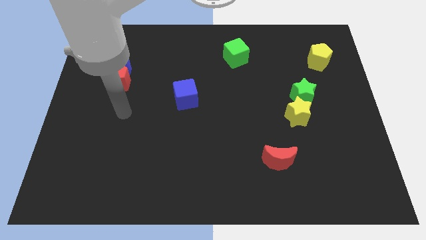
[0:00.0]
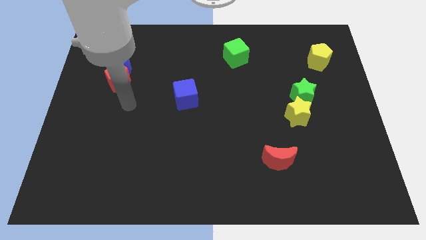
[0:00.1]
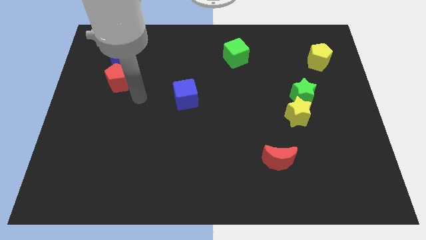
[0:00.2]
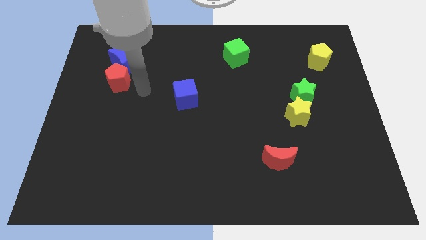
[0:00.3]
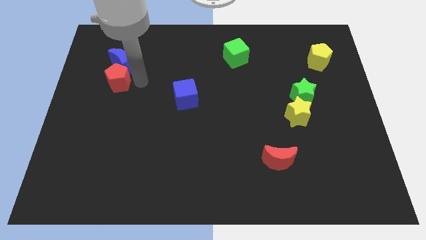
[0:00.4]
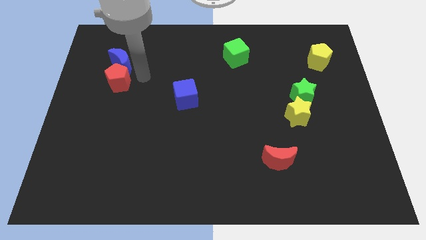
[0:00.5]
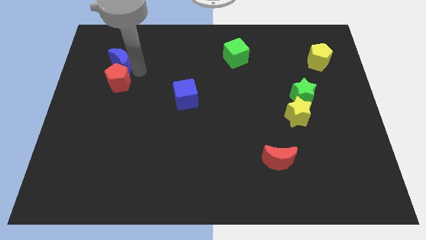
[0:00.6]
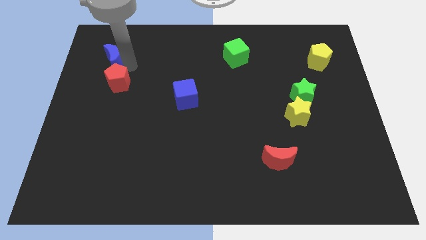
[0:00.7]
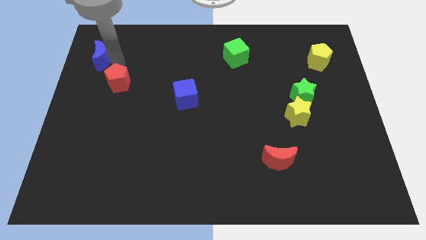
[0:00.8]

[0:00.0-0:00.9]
move the red pentagon away from the blue moon

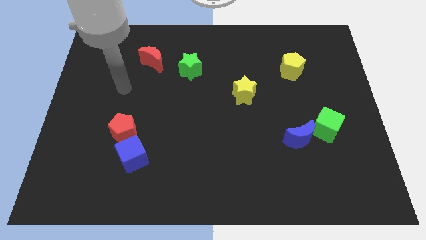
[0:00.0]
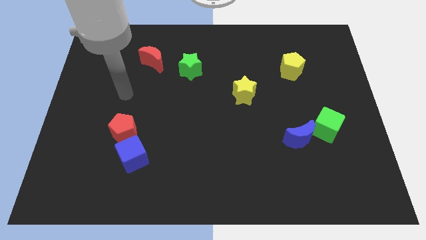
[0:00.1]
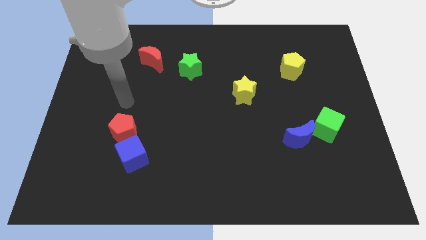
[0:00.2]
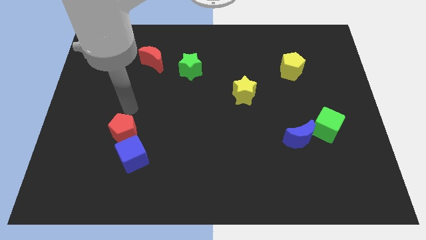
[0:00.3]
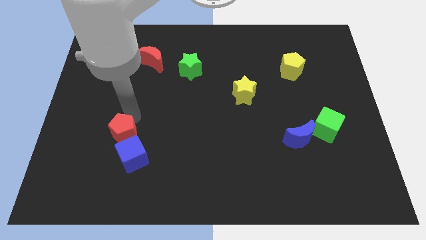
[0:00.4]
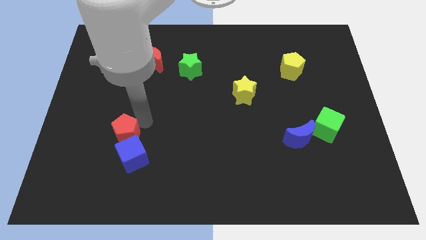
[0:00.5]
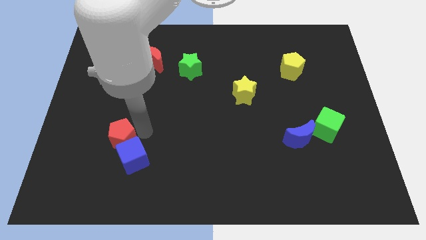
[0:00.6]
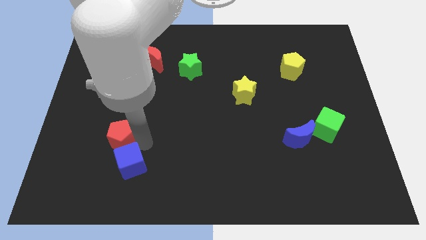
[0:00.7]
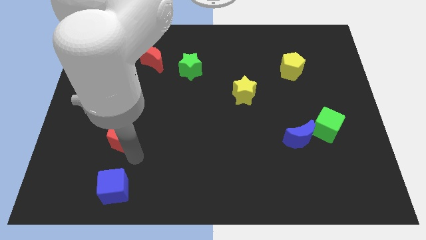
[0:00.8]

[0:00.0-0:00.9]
move the red pentagon away from the blue cube

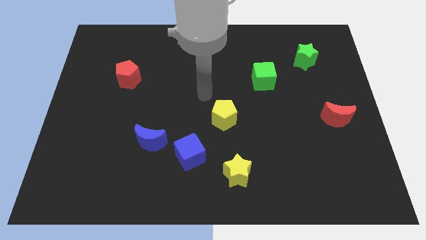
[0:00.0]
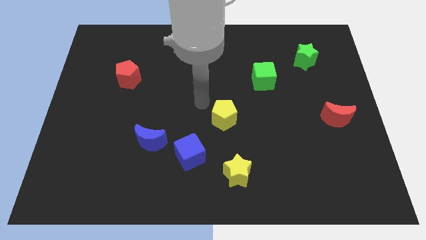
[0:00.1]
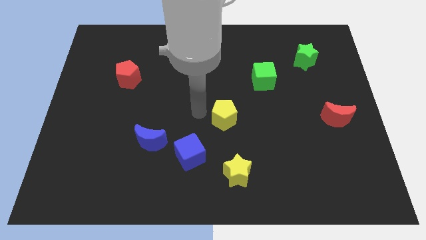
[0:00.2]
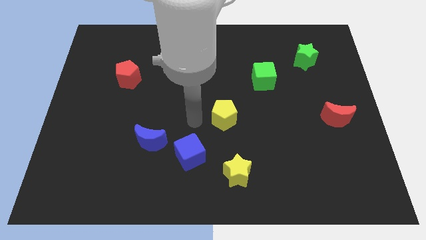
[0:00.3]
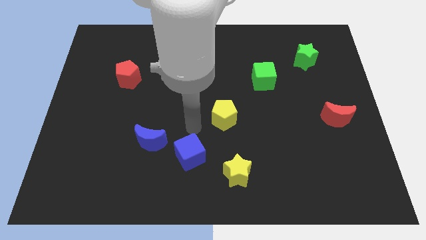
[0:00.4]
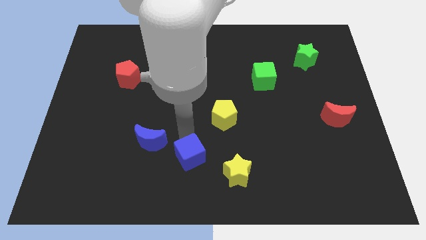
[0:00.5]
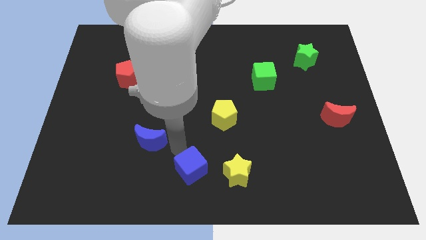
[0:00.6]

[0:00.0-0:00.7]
separate the blue moon from the blue cube

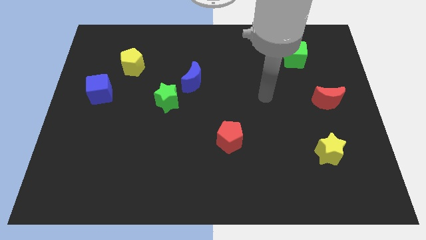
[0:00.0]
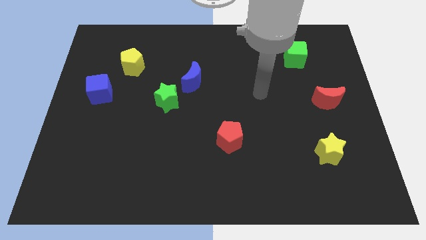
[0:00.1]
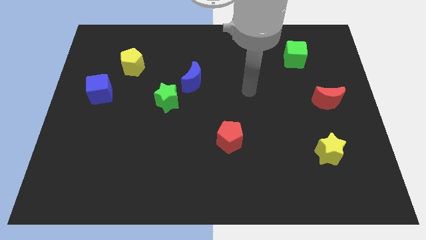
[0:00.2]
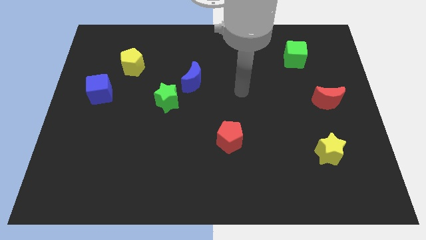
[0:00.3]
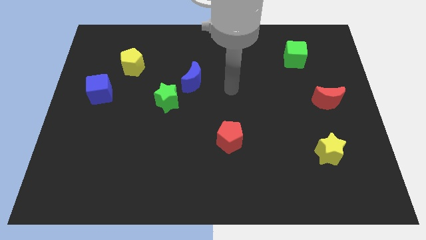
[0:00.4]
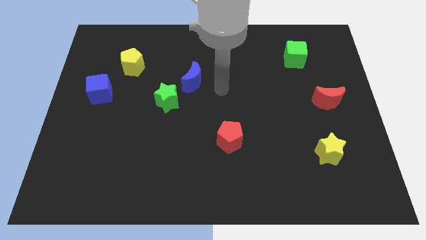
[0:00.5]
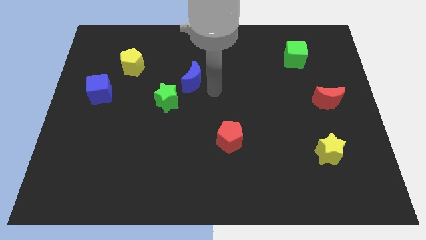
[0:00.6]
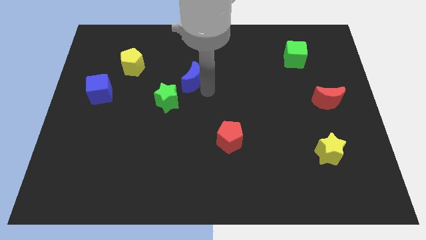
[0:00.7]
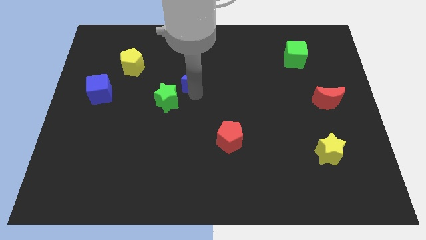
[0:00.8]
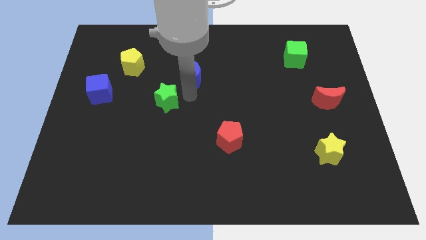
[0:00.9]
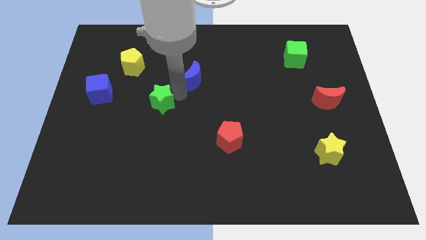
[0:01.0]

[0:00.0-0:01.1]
separate the blue moon from the green star

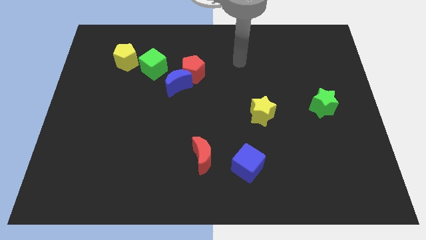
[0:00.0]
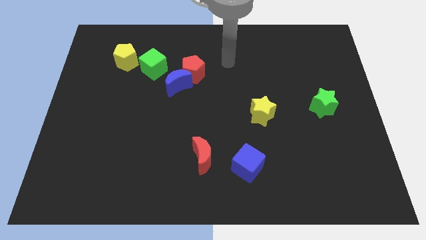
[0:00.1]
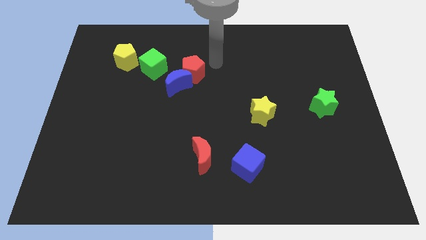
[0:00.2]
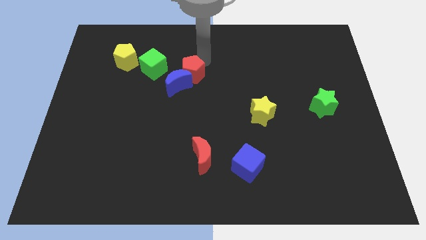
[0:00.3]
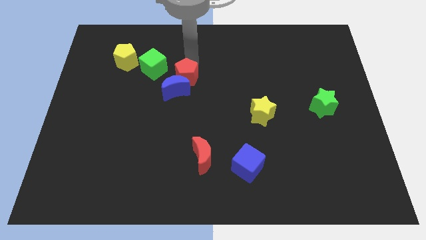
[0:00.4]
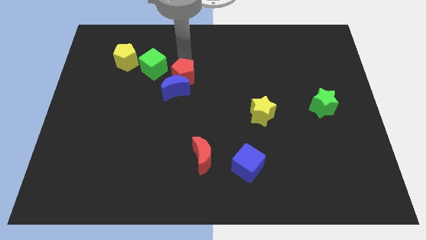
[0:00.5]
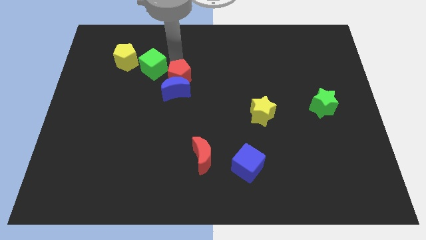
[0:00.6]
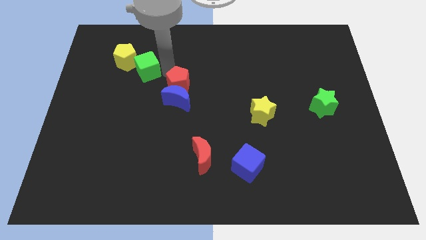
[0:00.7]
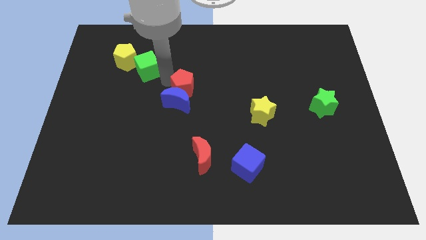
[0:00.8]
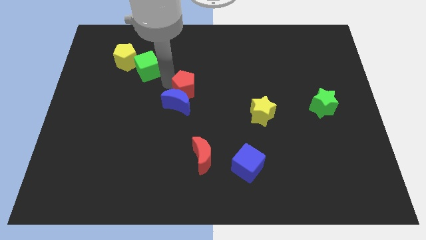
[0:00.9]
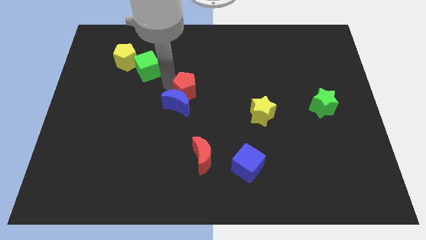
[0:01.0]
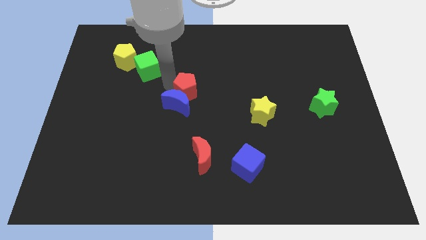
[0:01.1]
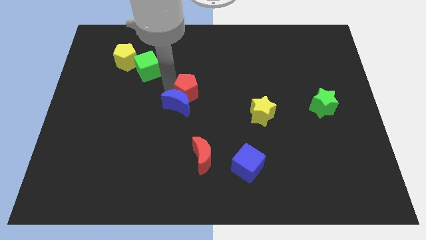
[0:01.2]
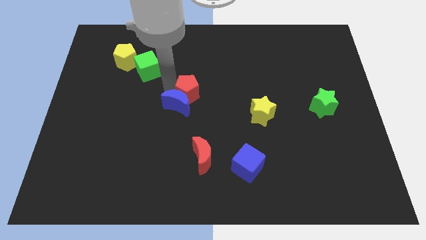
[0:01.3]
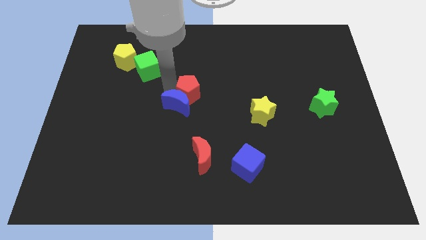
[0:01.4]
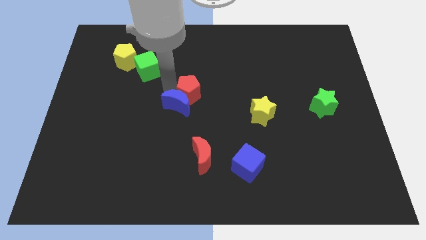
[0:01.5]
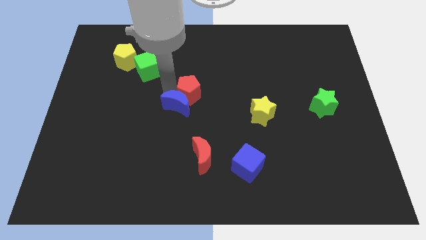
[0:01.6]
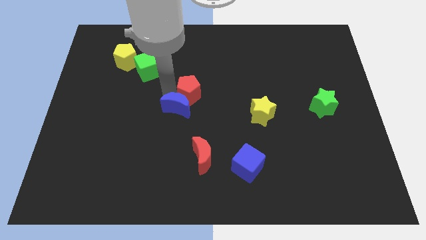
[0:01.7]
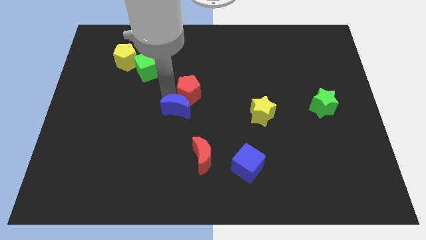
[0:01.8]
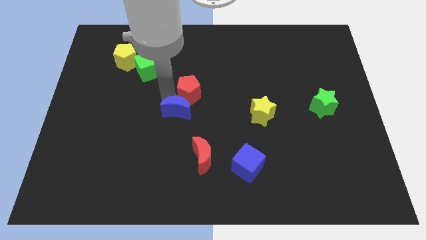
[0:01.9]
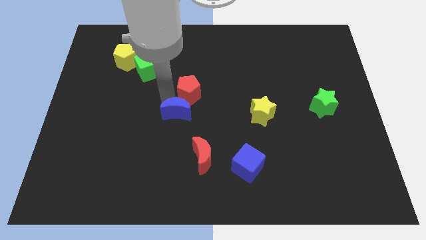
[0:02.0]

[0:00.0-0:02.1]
move the blue moon away from the red pentagon and green cube

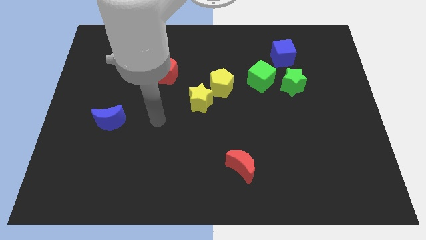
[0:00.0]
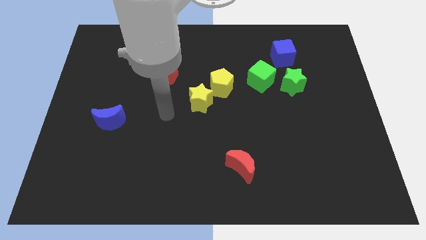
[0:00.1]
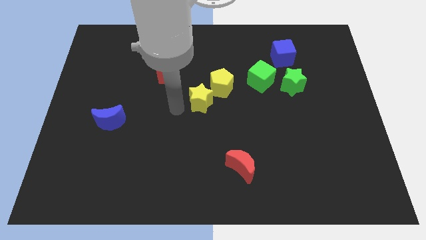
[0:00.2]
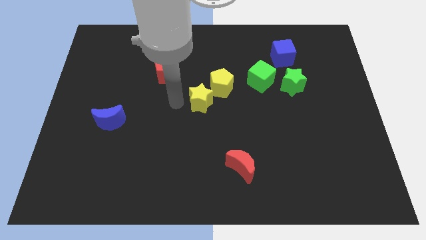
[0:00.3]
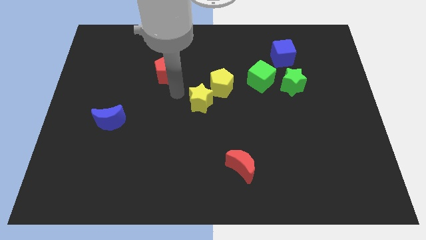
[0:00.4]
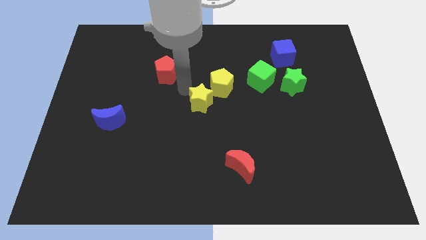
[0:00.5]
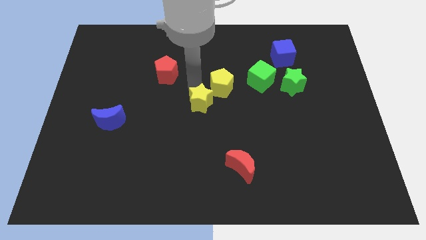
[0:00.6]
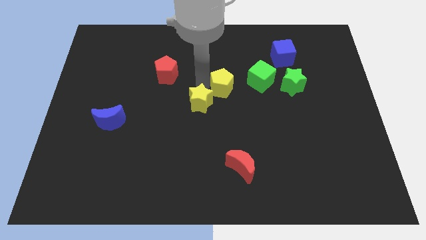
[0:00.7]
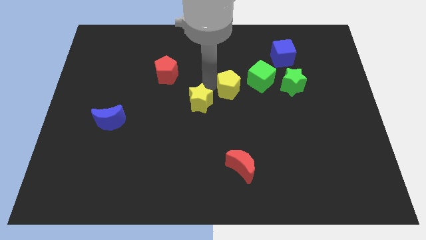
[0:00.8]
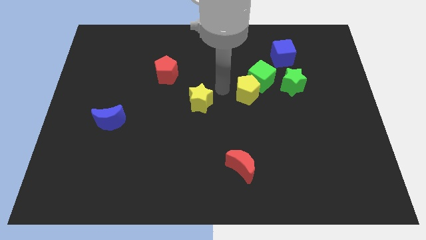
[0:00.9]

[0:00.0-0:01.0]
separate the yellow star from the yellow pentagon

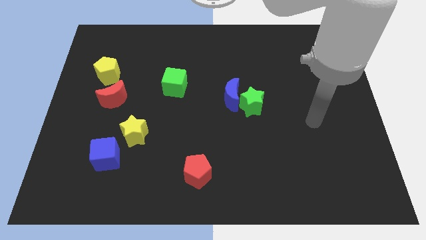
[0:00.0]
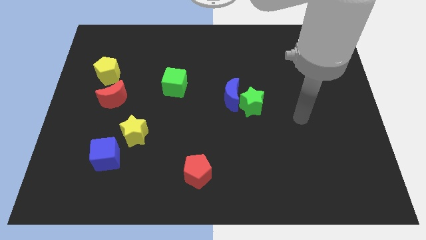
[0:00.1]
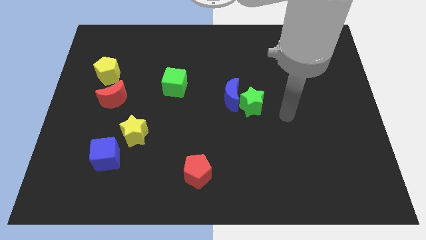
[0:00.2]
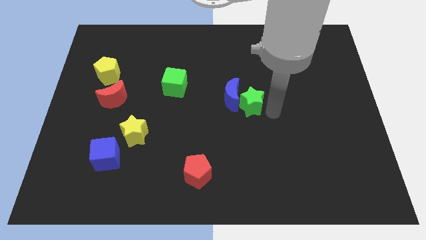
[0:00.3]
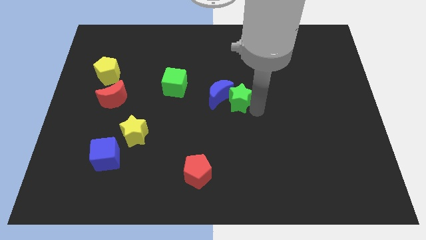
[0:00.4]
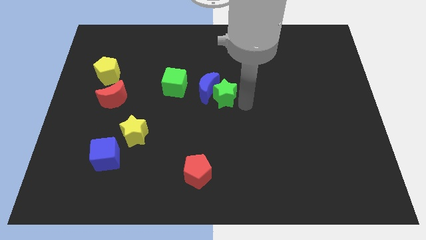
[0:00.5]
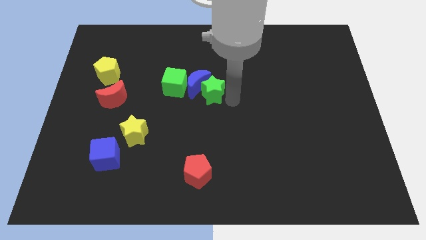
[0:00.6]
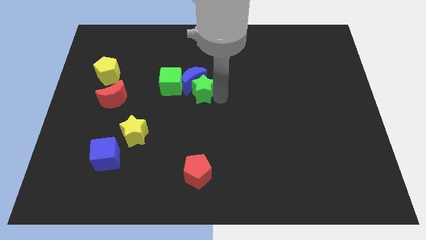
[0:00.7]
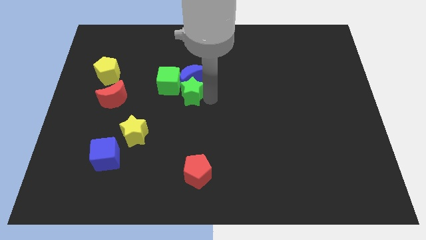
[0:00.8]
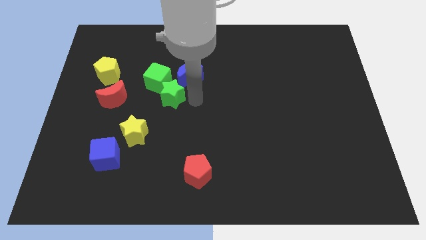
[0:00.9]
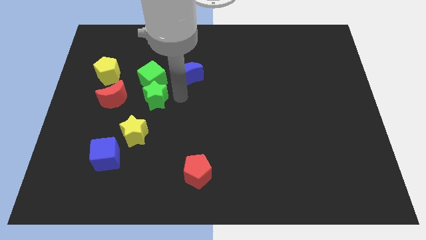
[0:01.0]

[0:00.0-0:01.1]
move the blue moon away from the green star

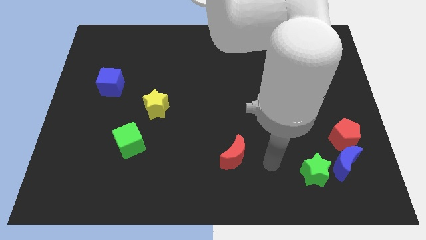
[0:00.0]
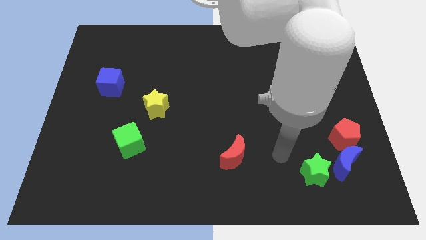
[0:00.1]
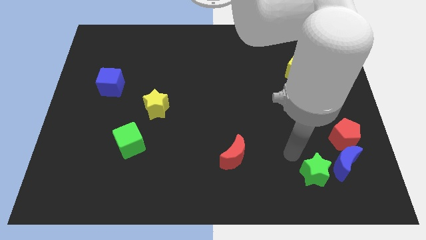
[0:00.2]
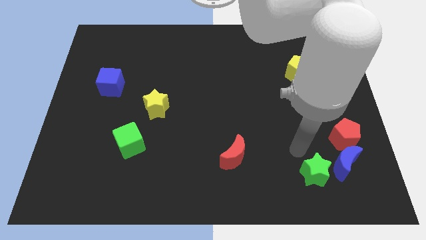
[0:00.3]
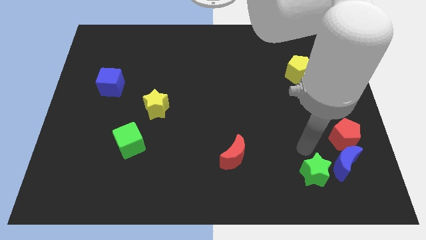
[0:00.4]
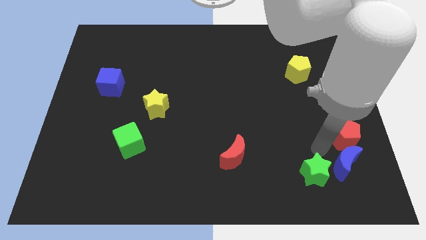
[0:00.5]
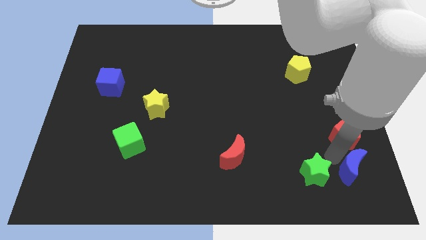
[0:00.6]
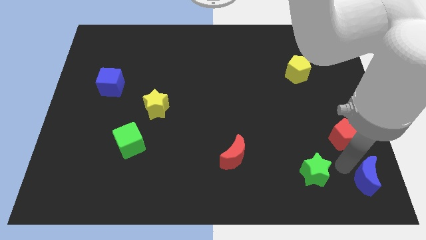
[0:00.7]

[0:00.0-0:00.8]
pull the green star apart from the blue moon

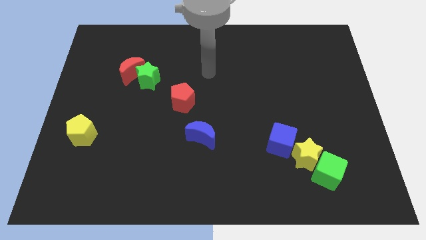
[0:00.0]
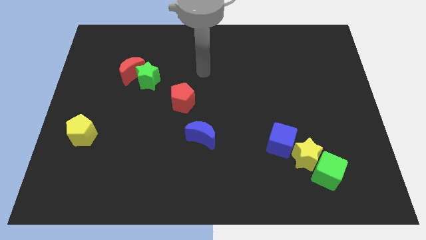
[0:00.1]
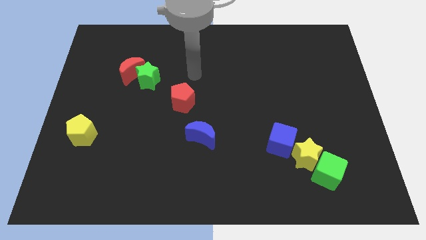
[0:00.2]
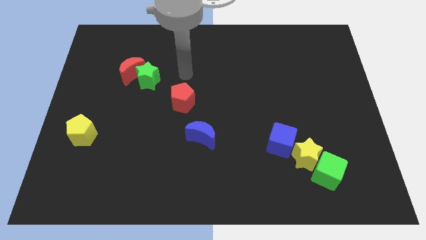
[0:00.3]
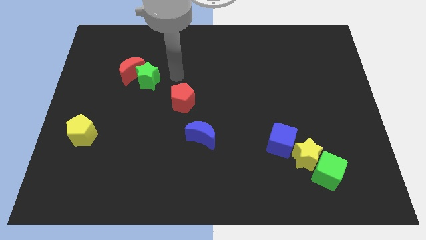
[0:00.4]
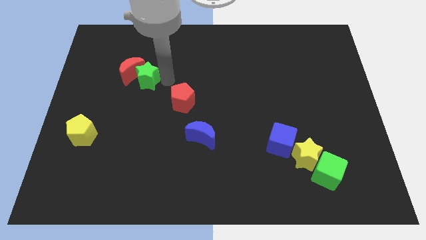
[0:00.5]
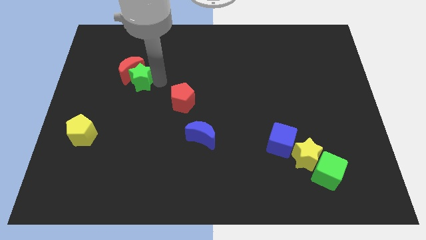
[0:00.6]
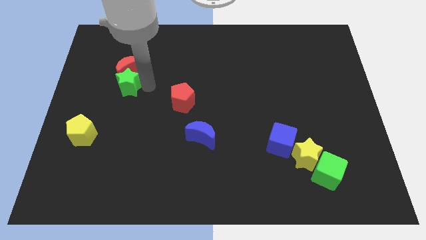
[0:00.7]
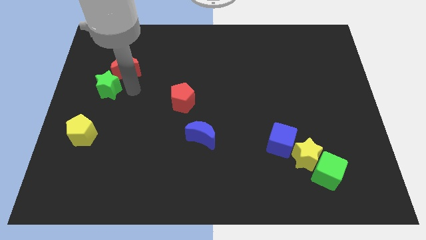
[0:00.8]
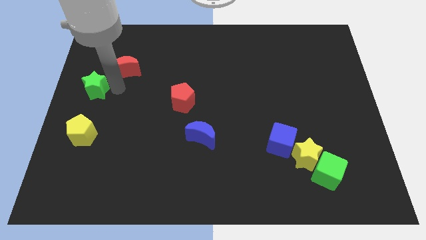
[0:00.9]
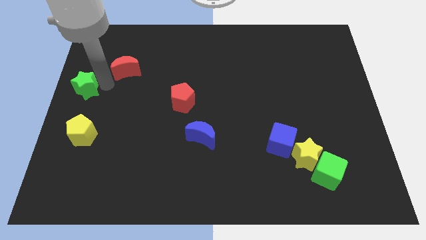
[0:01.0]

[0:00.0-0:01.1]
separate the red moon from the green star
